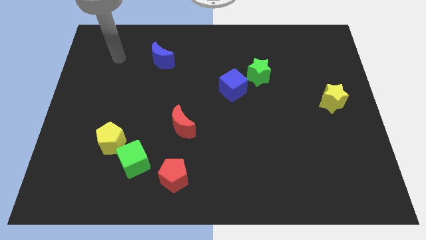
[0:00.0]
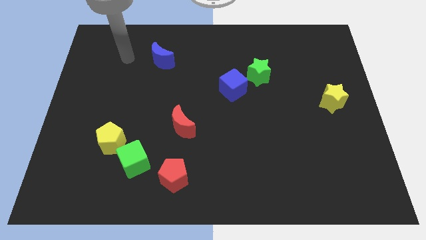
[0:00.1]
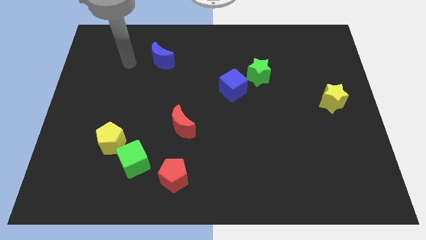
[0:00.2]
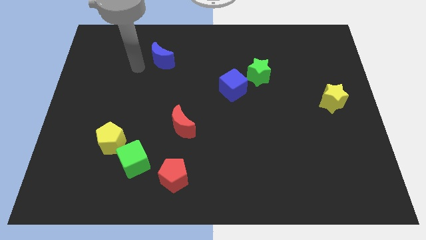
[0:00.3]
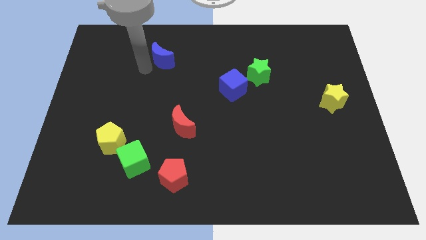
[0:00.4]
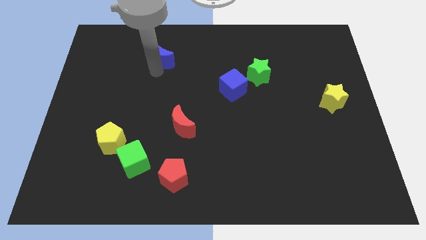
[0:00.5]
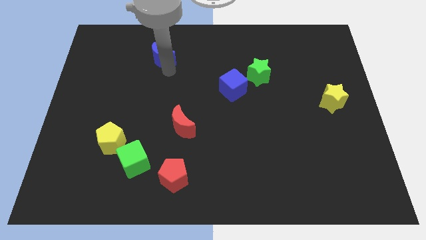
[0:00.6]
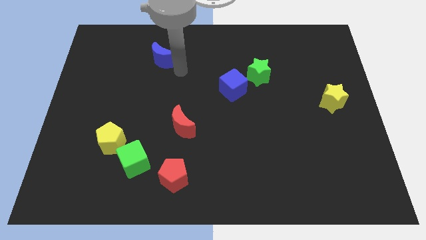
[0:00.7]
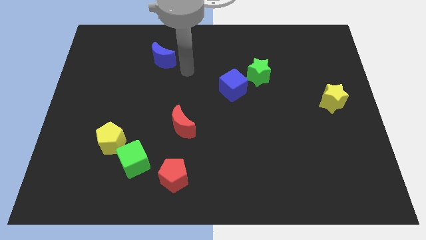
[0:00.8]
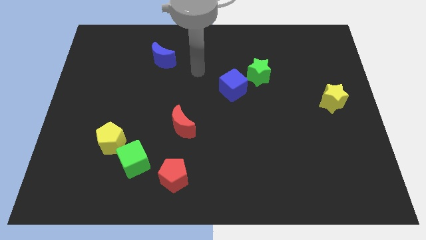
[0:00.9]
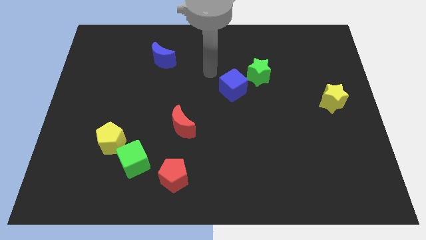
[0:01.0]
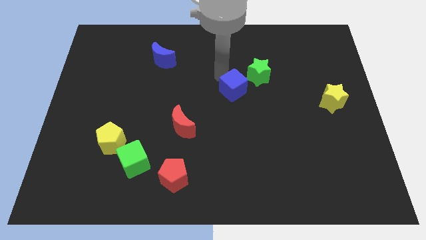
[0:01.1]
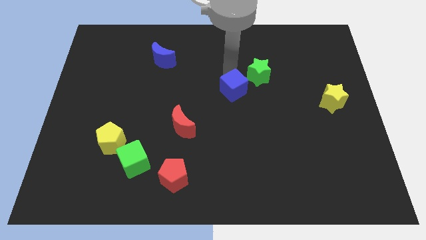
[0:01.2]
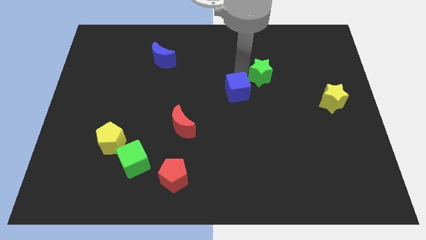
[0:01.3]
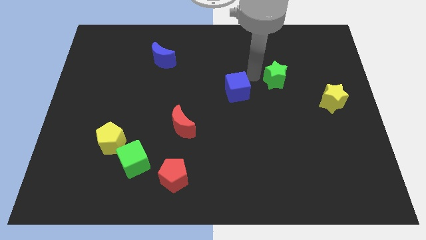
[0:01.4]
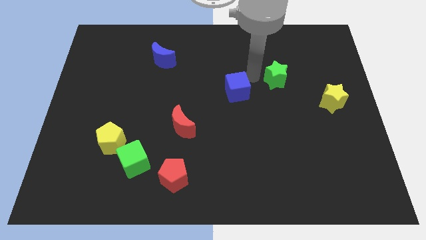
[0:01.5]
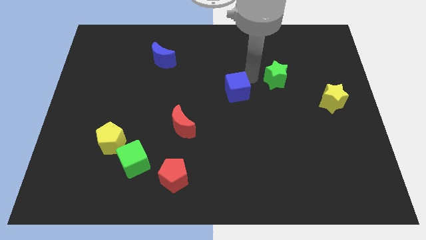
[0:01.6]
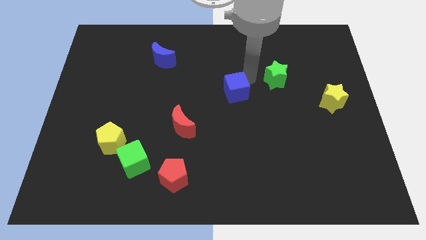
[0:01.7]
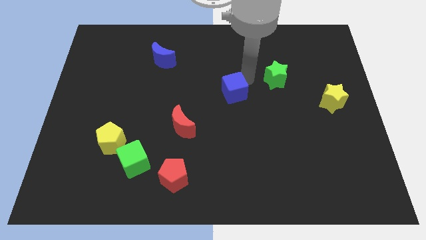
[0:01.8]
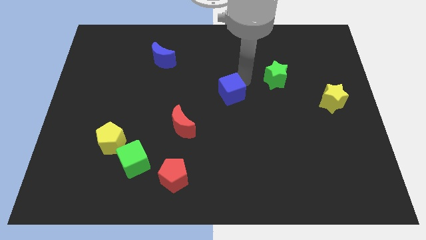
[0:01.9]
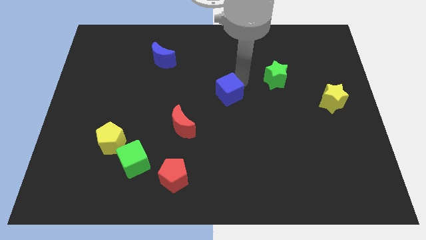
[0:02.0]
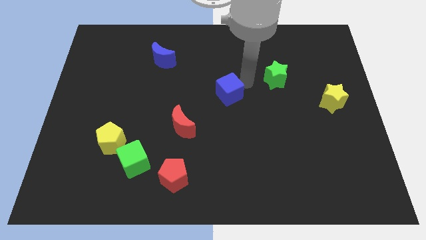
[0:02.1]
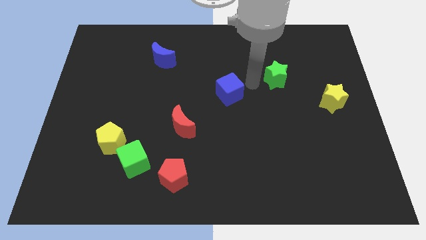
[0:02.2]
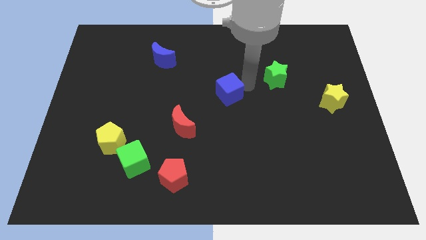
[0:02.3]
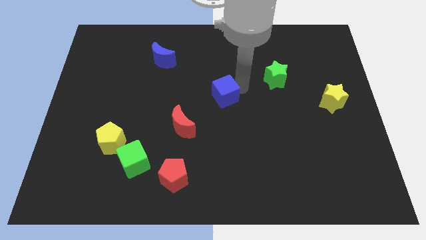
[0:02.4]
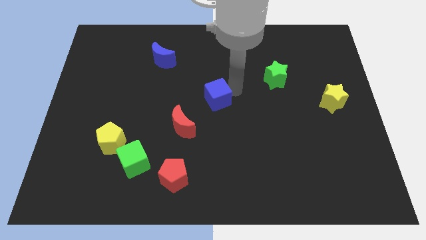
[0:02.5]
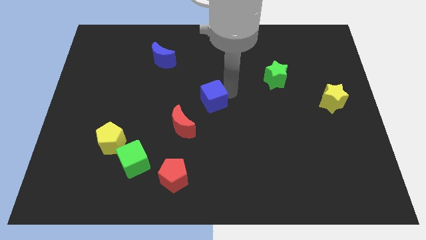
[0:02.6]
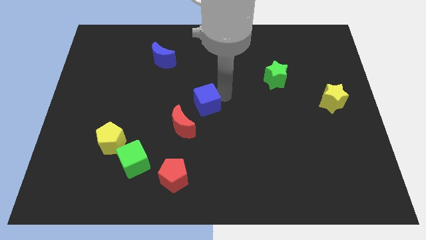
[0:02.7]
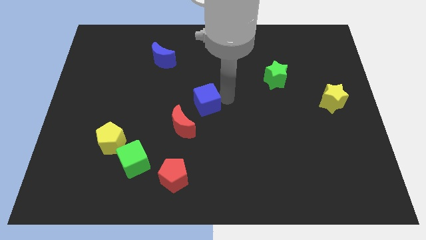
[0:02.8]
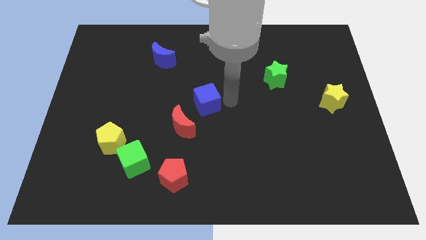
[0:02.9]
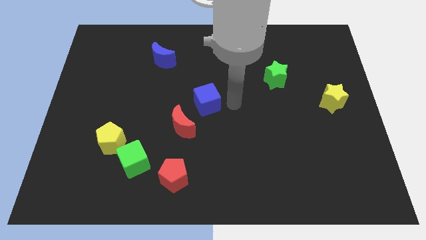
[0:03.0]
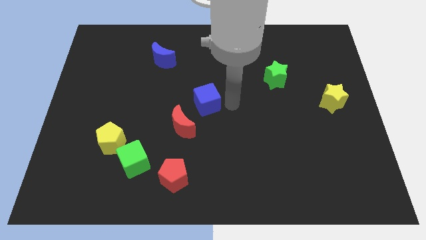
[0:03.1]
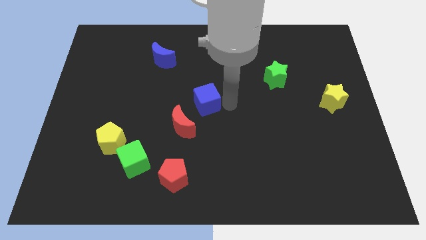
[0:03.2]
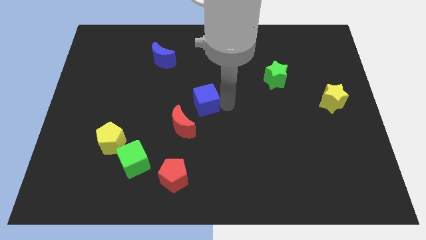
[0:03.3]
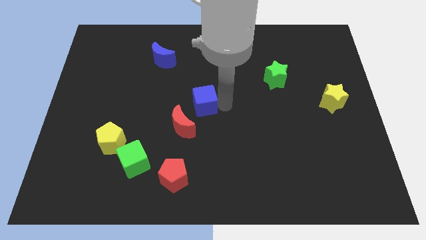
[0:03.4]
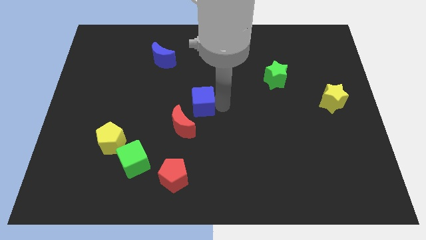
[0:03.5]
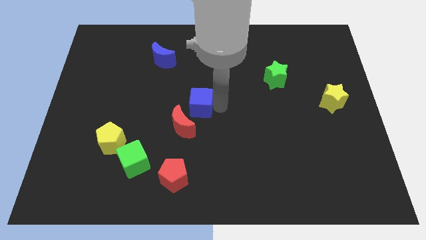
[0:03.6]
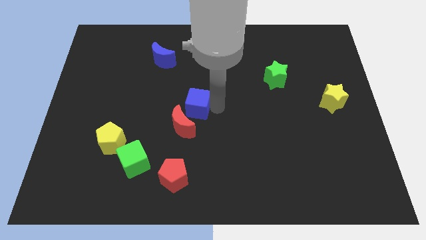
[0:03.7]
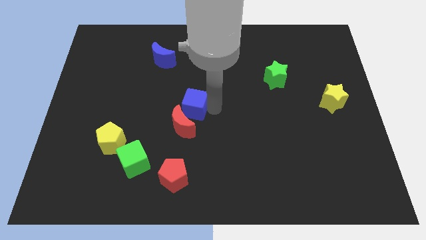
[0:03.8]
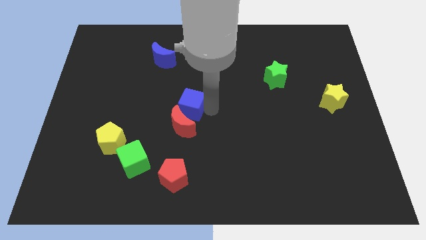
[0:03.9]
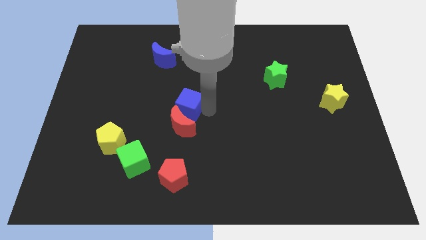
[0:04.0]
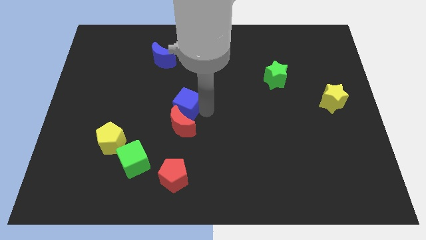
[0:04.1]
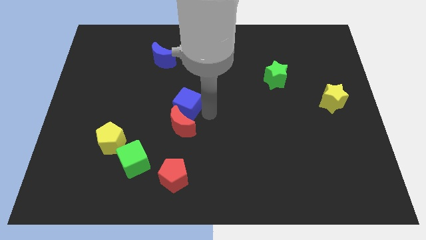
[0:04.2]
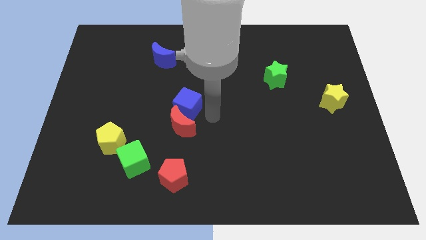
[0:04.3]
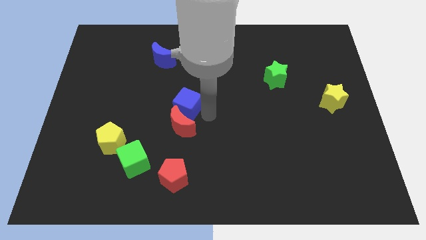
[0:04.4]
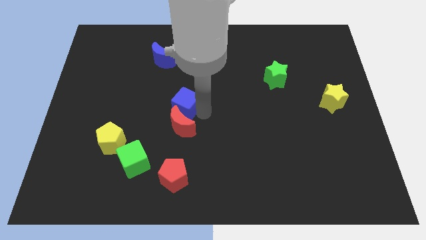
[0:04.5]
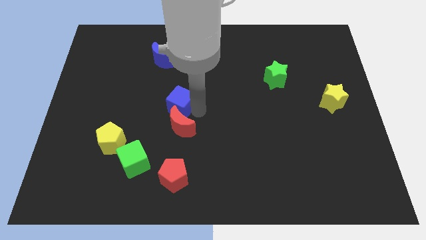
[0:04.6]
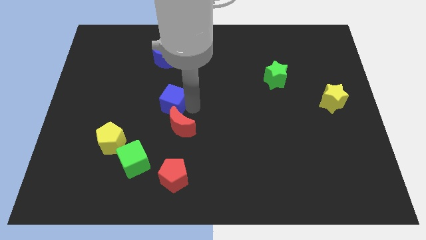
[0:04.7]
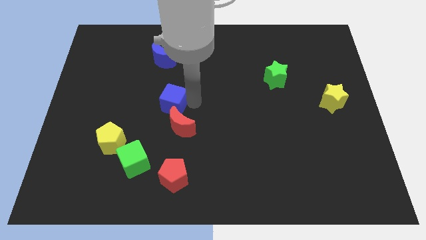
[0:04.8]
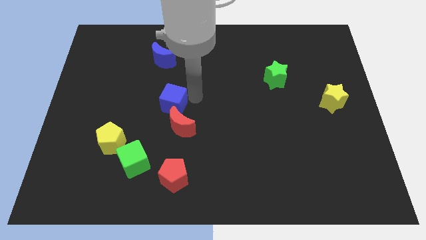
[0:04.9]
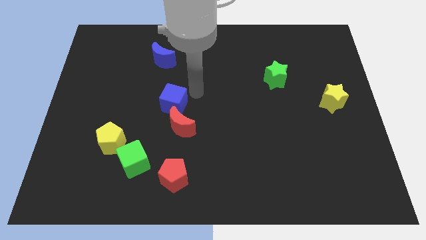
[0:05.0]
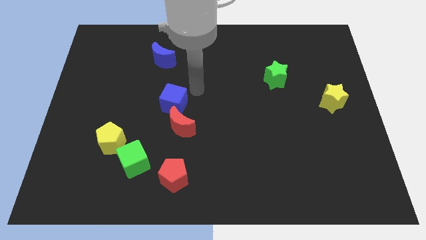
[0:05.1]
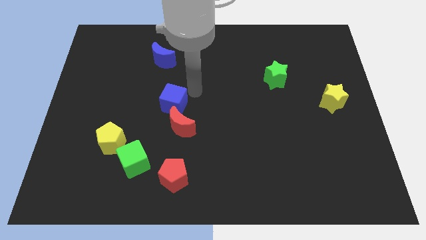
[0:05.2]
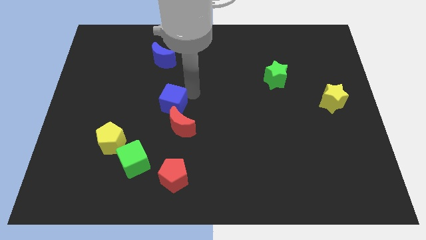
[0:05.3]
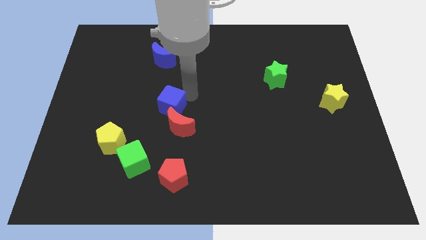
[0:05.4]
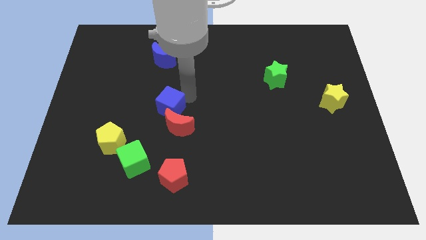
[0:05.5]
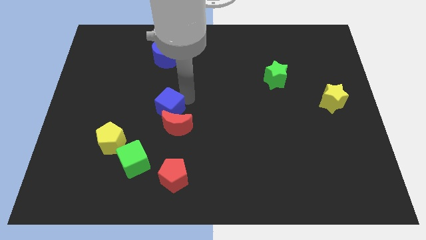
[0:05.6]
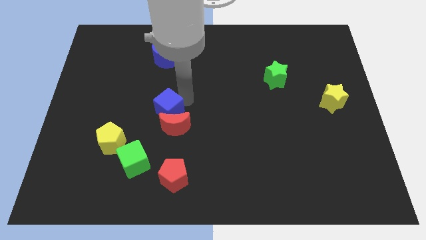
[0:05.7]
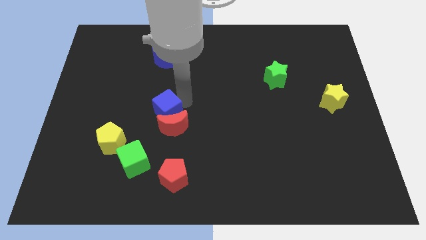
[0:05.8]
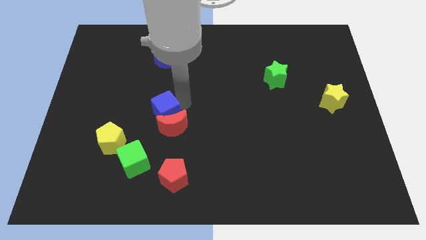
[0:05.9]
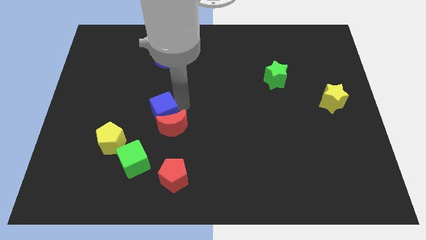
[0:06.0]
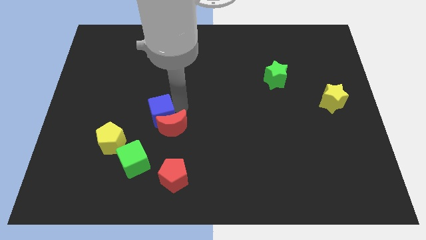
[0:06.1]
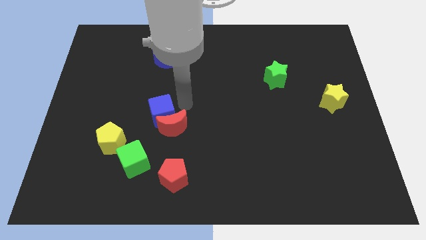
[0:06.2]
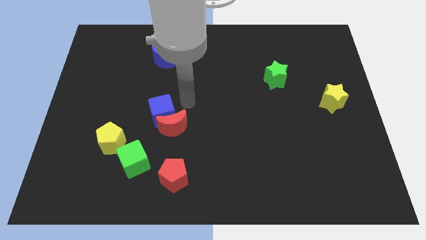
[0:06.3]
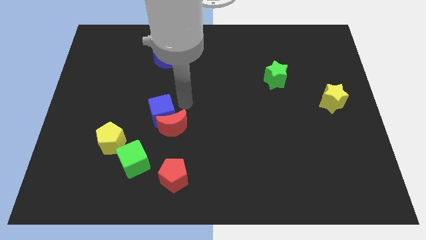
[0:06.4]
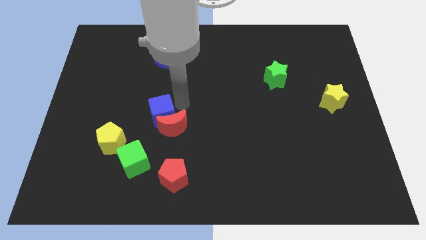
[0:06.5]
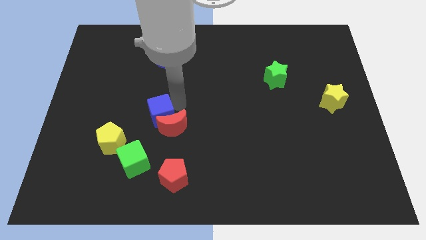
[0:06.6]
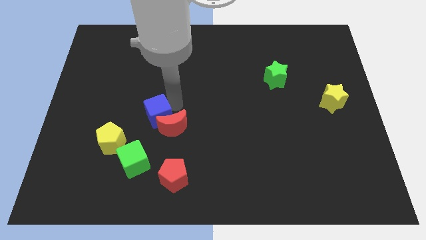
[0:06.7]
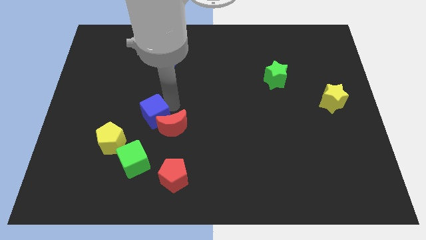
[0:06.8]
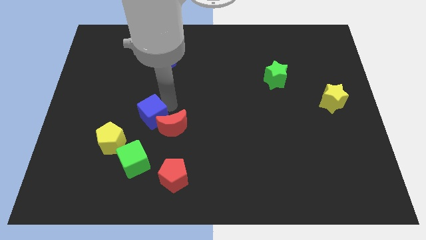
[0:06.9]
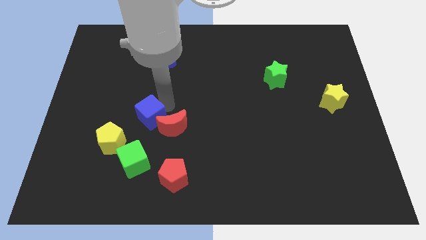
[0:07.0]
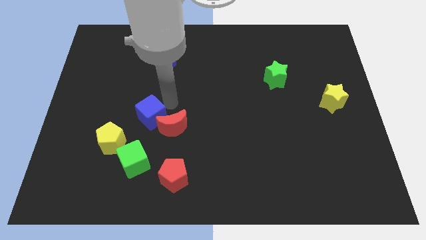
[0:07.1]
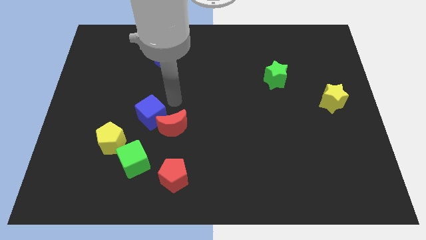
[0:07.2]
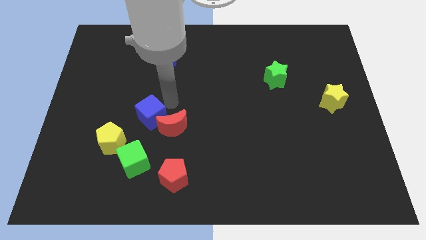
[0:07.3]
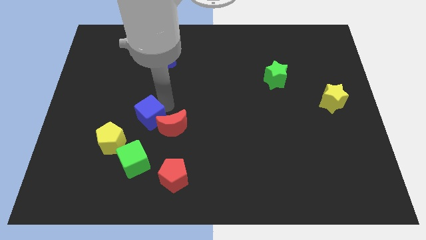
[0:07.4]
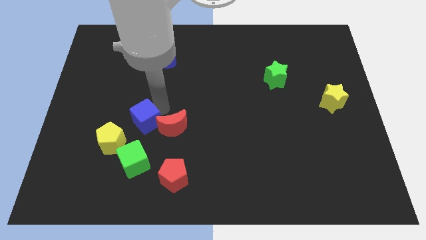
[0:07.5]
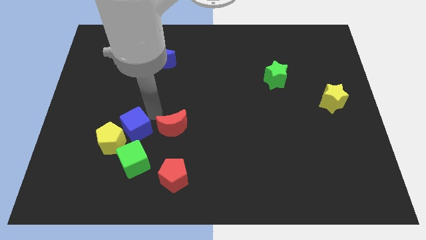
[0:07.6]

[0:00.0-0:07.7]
move the blue cube next to the yellow pentagon
